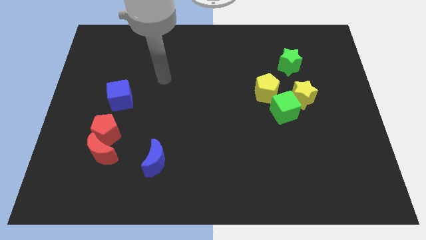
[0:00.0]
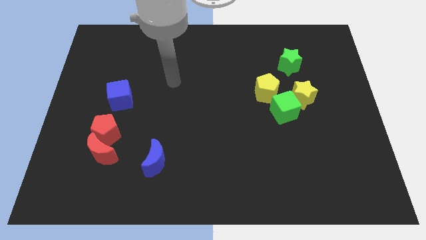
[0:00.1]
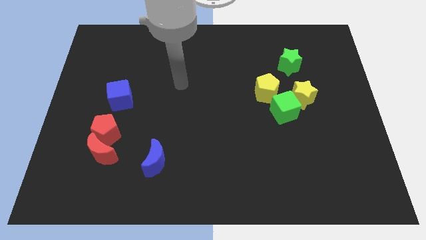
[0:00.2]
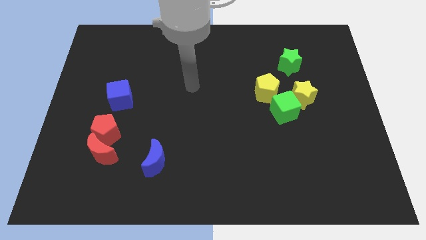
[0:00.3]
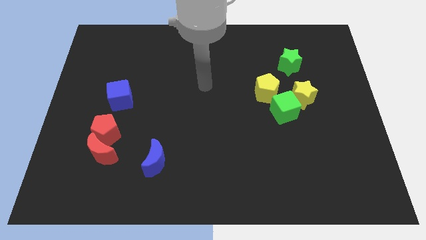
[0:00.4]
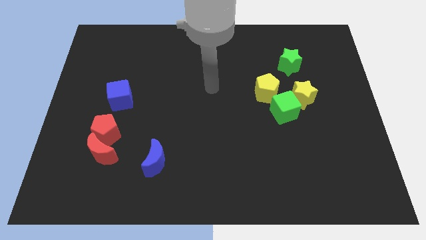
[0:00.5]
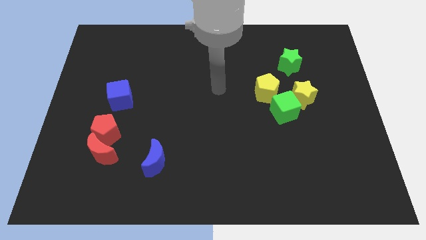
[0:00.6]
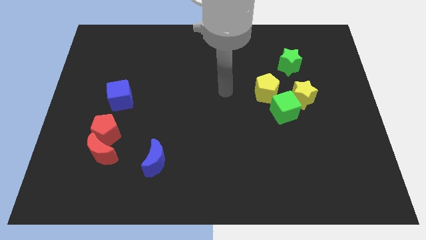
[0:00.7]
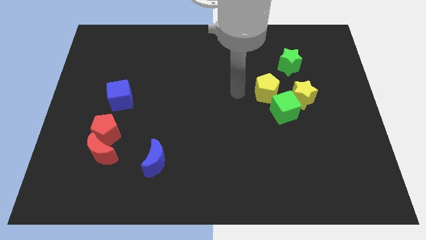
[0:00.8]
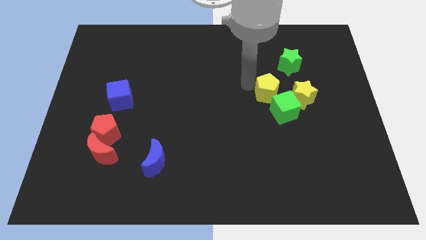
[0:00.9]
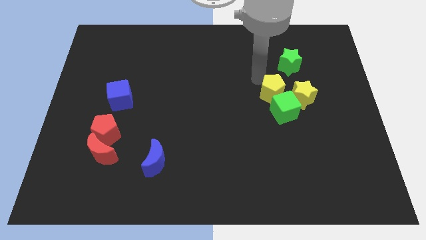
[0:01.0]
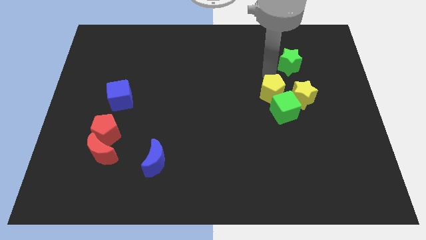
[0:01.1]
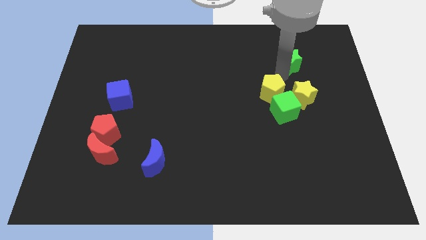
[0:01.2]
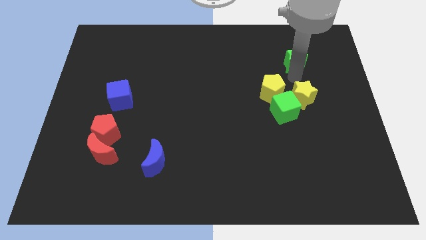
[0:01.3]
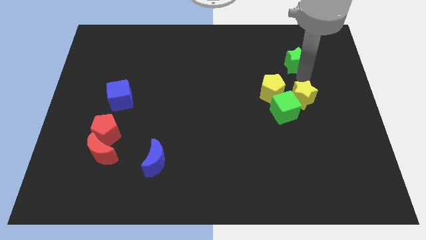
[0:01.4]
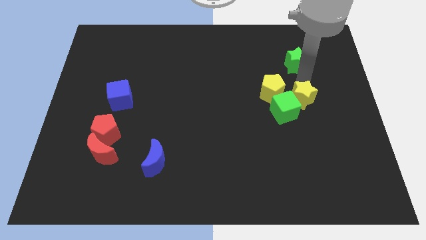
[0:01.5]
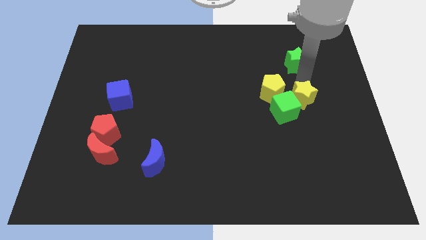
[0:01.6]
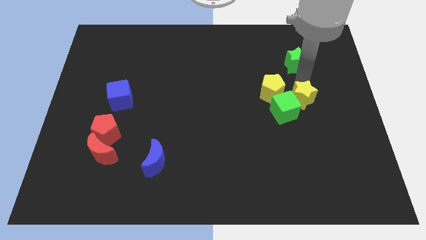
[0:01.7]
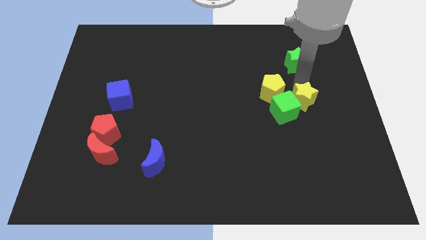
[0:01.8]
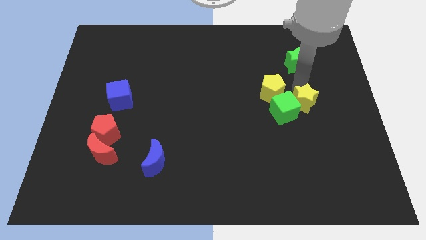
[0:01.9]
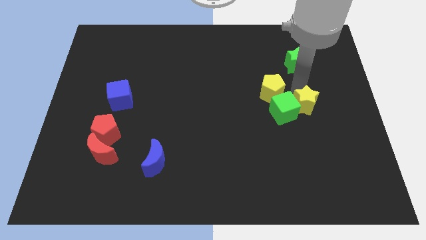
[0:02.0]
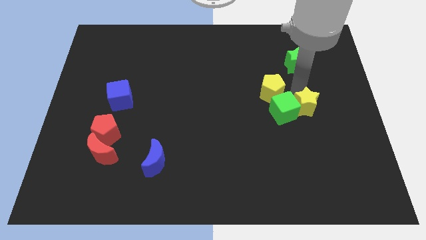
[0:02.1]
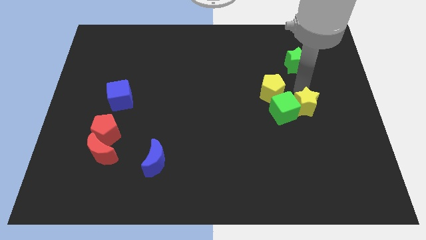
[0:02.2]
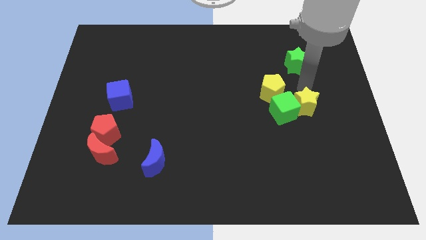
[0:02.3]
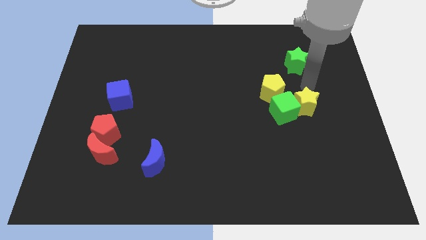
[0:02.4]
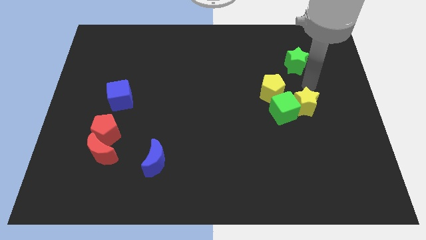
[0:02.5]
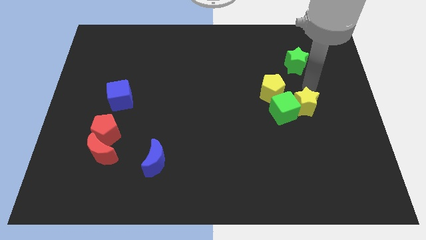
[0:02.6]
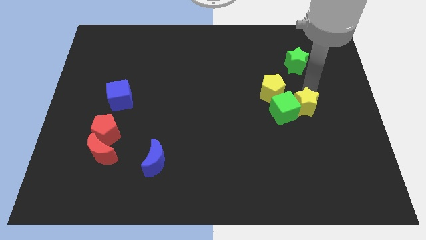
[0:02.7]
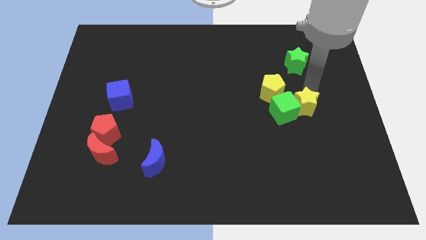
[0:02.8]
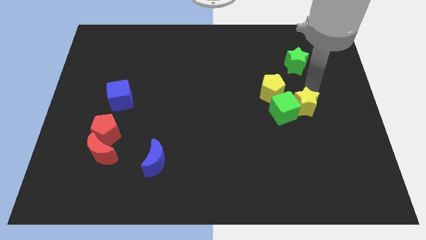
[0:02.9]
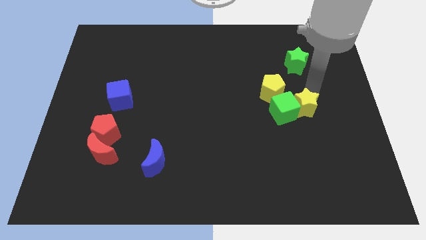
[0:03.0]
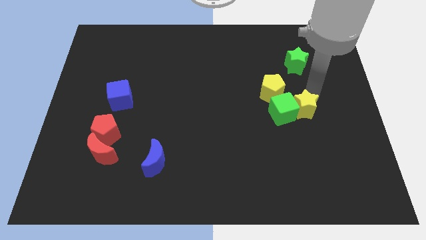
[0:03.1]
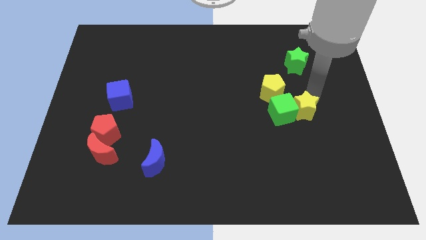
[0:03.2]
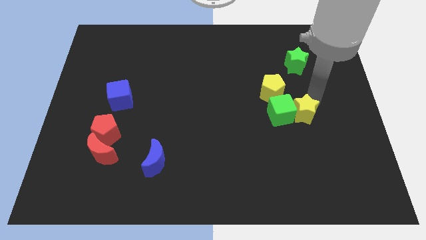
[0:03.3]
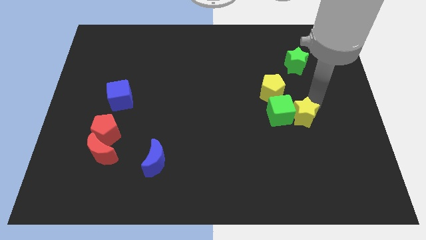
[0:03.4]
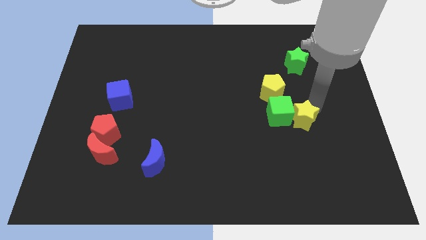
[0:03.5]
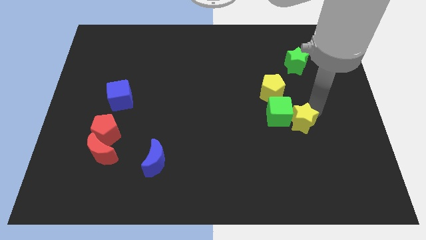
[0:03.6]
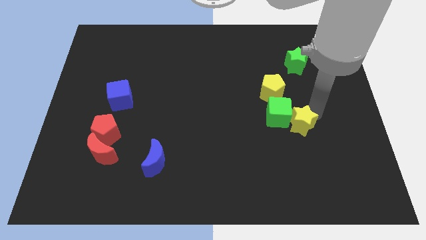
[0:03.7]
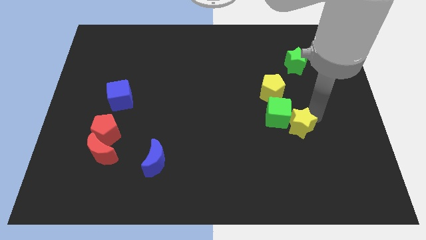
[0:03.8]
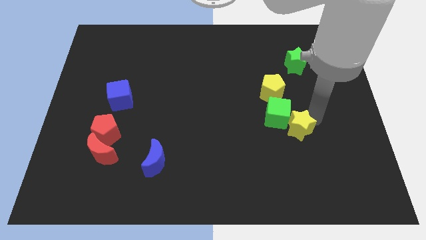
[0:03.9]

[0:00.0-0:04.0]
move the yellow star down and left a little

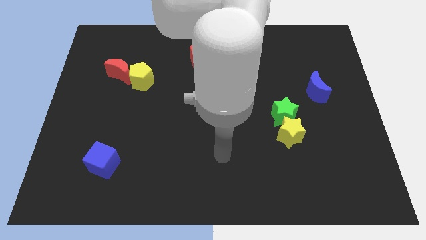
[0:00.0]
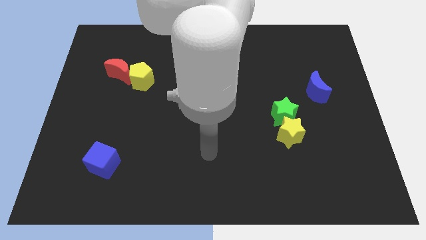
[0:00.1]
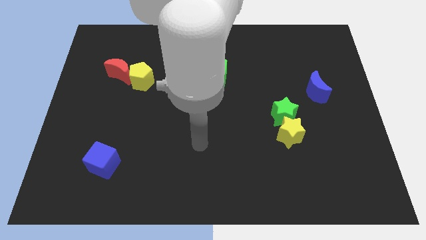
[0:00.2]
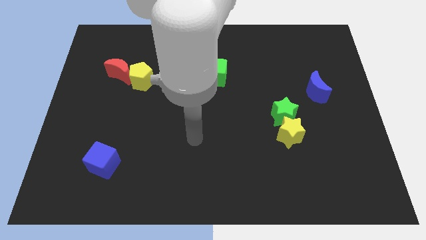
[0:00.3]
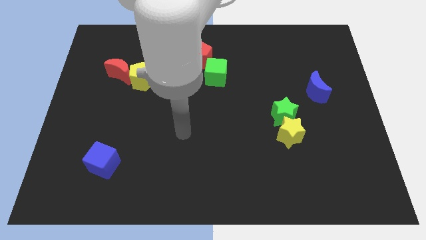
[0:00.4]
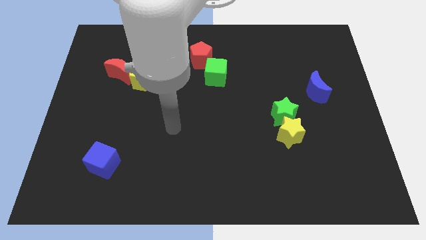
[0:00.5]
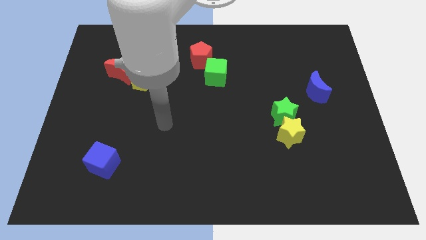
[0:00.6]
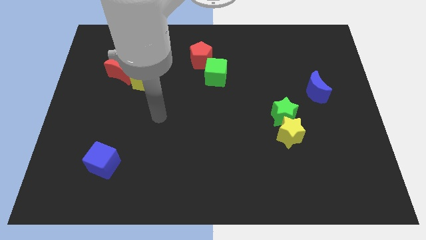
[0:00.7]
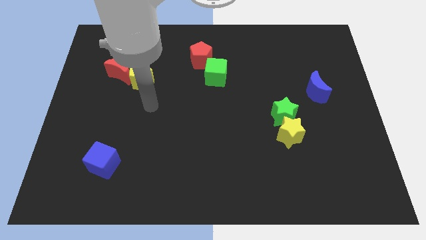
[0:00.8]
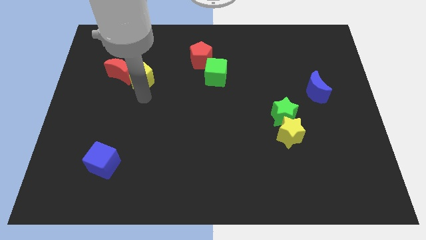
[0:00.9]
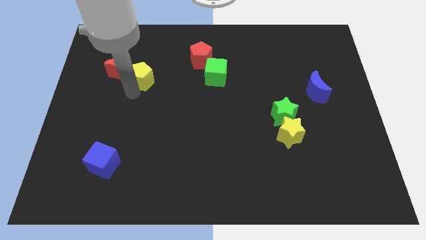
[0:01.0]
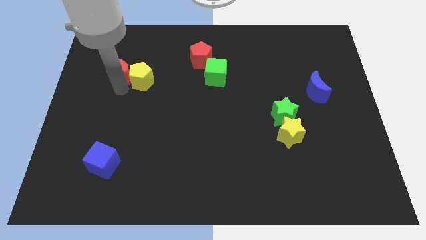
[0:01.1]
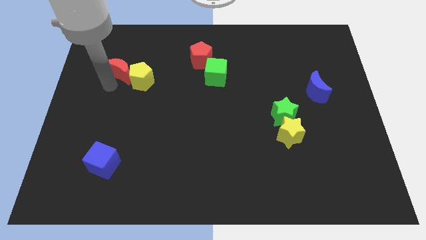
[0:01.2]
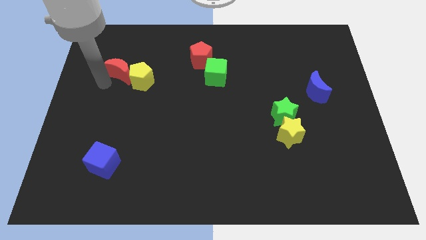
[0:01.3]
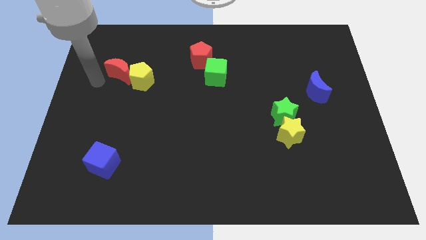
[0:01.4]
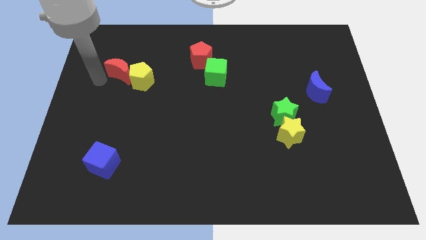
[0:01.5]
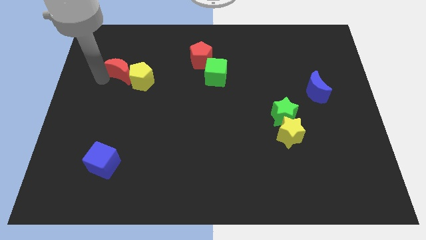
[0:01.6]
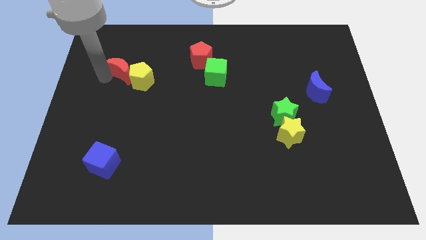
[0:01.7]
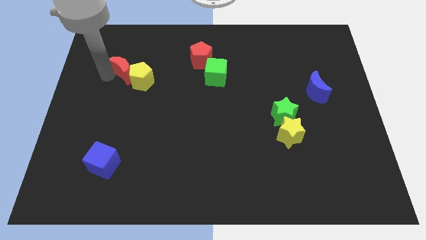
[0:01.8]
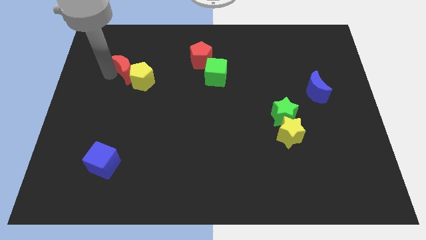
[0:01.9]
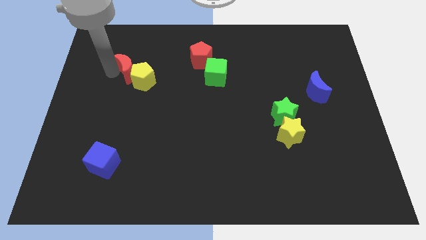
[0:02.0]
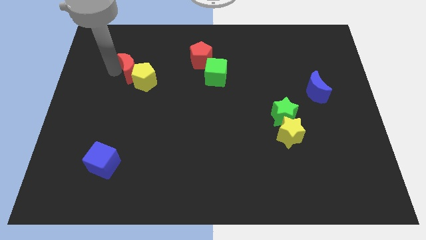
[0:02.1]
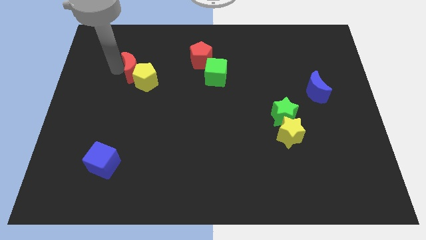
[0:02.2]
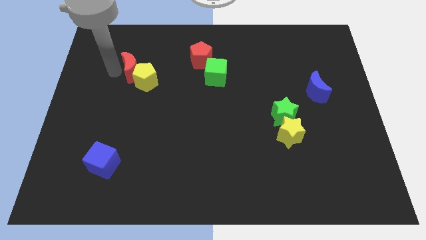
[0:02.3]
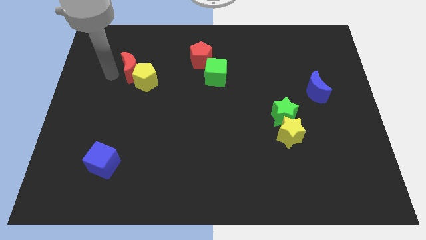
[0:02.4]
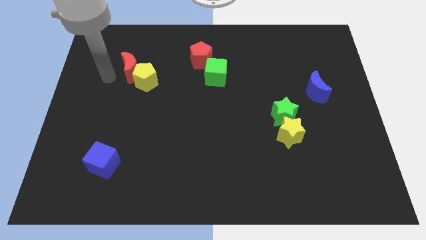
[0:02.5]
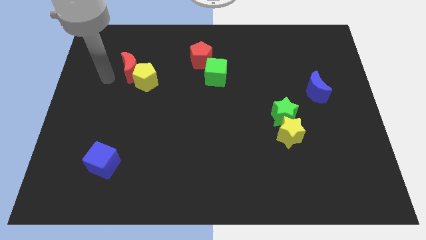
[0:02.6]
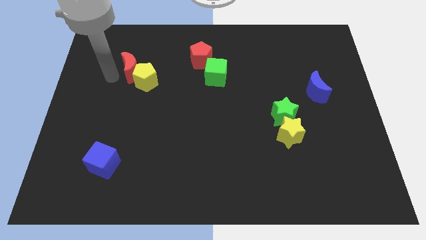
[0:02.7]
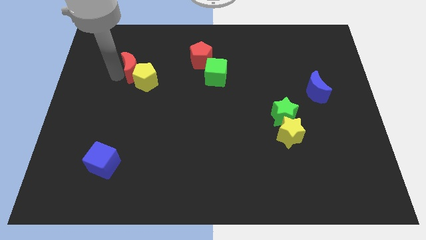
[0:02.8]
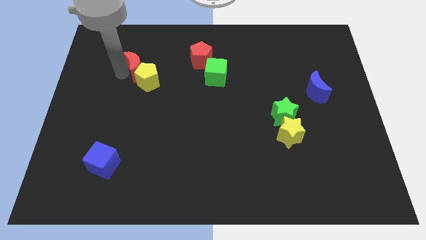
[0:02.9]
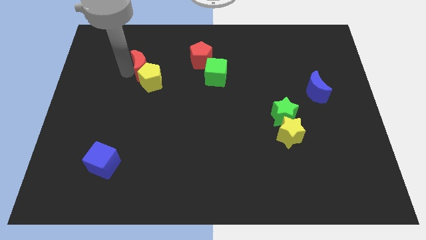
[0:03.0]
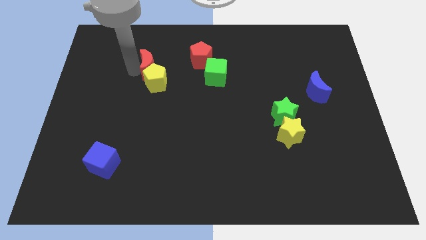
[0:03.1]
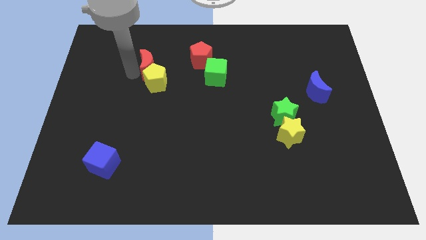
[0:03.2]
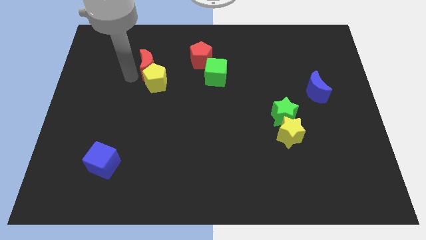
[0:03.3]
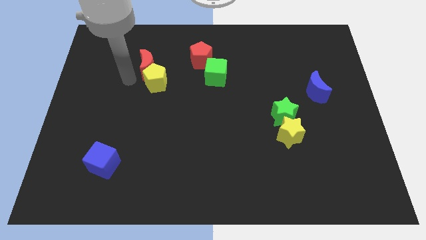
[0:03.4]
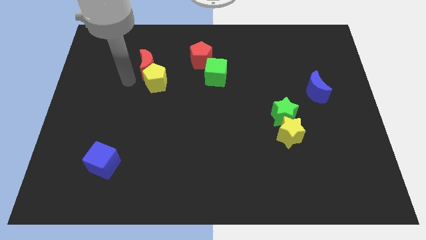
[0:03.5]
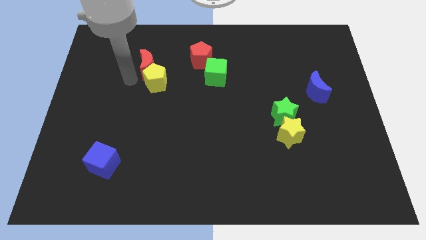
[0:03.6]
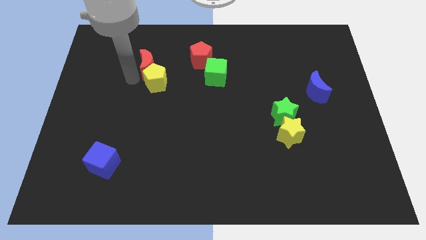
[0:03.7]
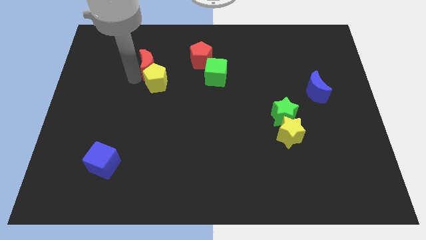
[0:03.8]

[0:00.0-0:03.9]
slide the red moon right a little bit
